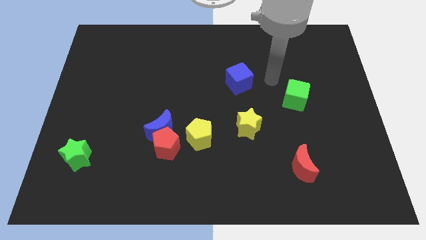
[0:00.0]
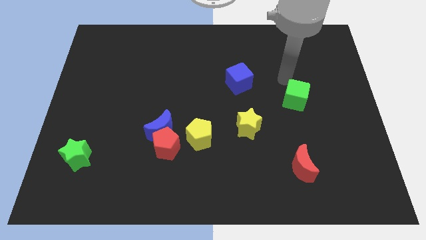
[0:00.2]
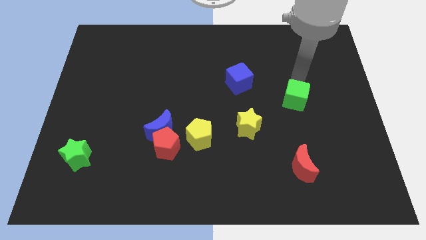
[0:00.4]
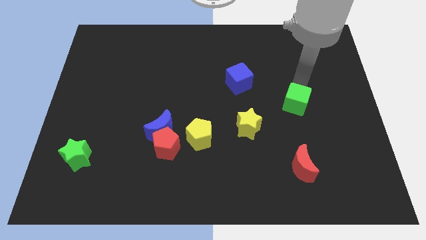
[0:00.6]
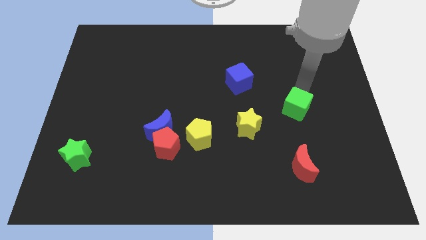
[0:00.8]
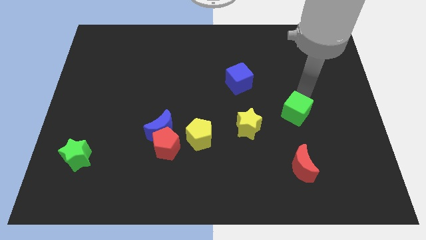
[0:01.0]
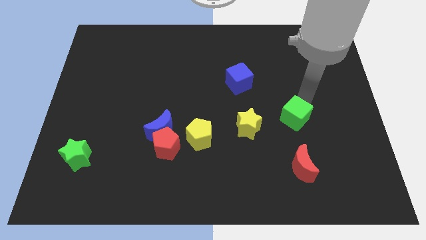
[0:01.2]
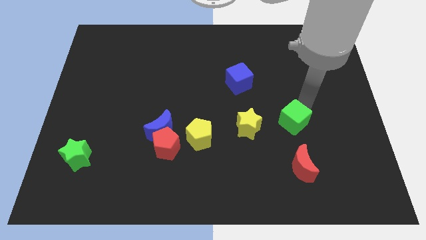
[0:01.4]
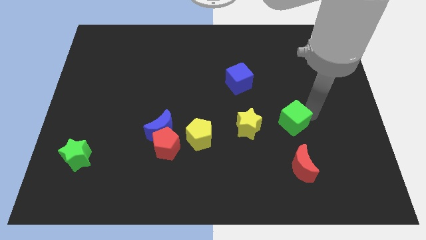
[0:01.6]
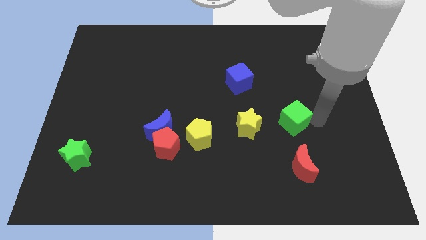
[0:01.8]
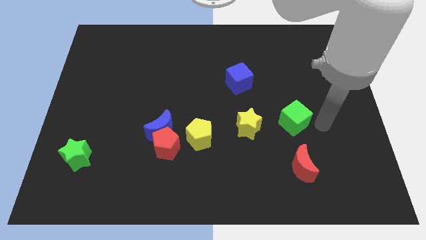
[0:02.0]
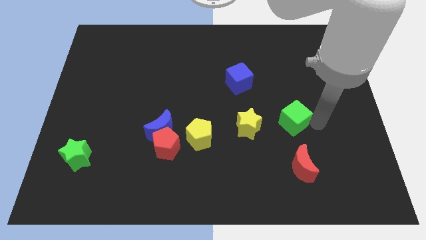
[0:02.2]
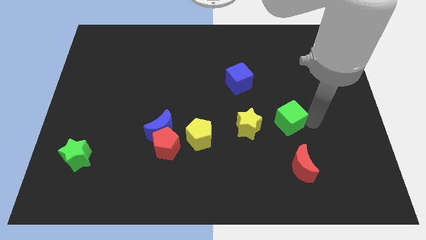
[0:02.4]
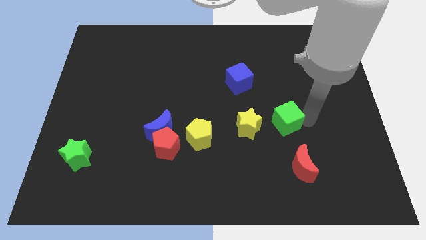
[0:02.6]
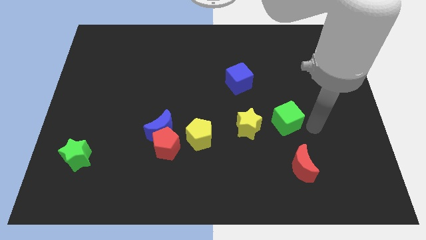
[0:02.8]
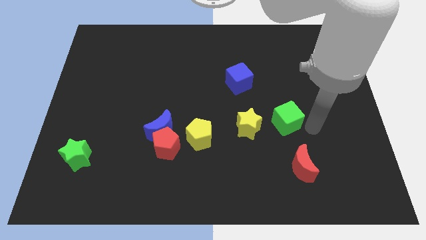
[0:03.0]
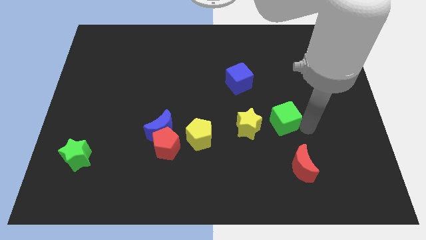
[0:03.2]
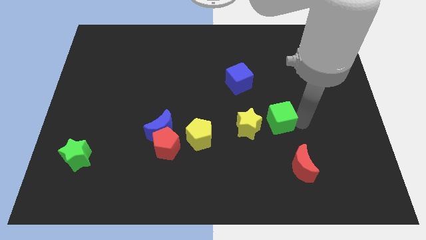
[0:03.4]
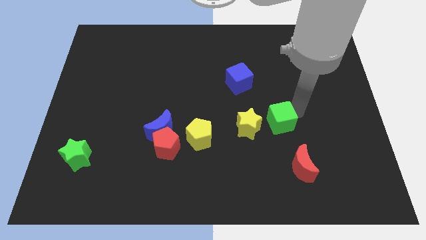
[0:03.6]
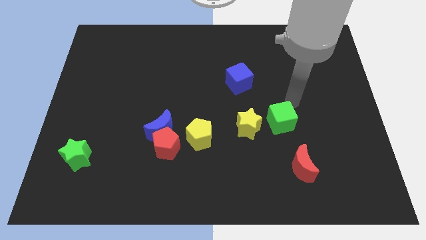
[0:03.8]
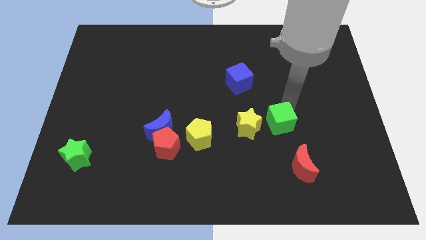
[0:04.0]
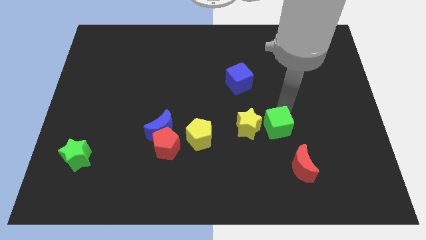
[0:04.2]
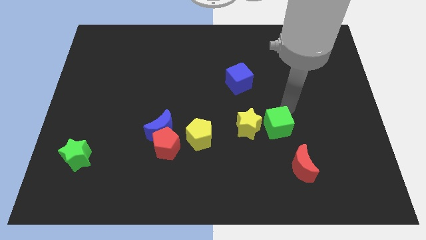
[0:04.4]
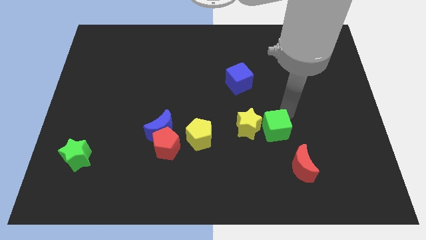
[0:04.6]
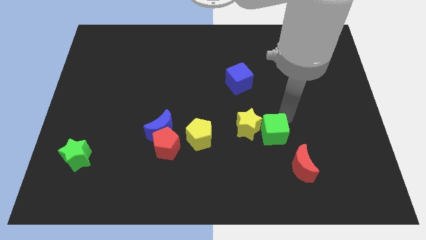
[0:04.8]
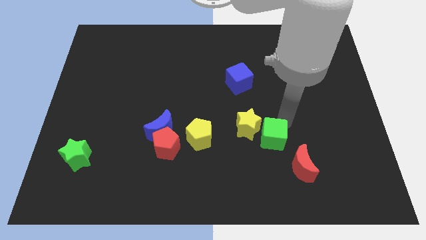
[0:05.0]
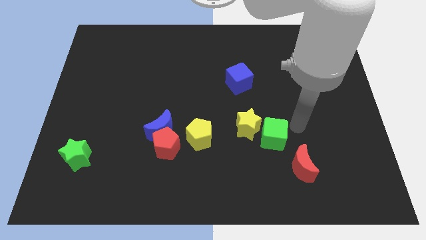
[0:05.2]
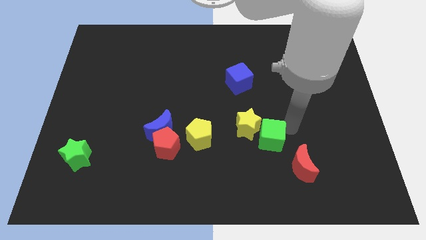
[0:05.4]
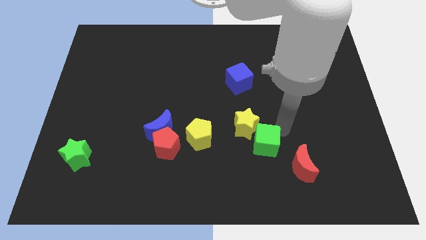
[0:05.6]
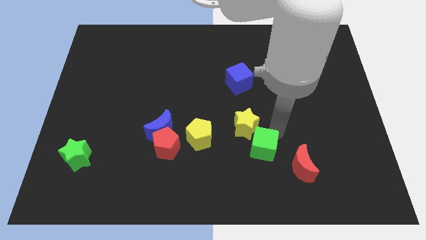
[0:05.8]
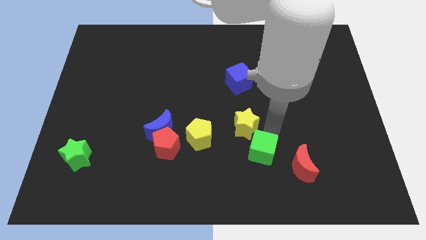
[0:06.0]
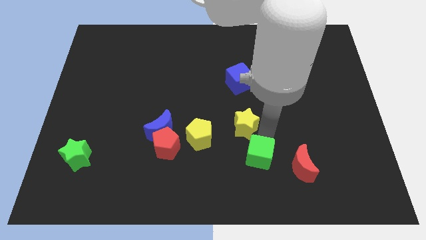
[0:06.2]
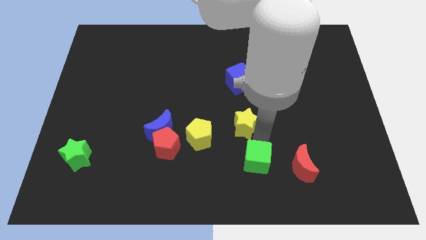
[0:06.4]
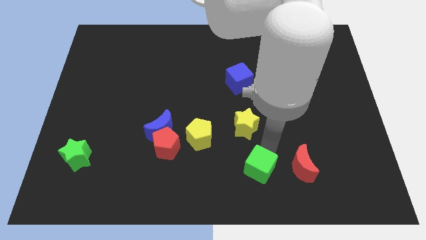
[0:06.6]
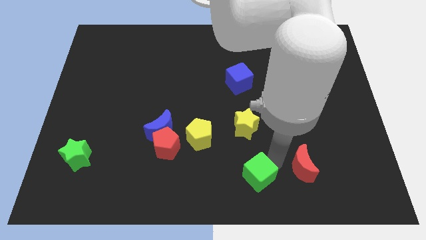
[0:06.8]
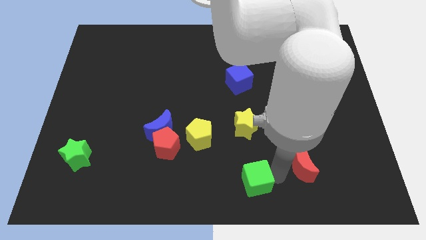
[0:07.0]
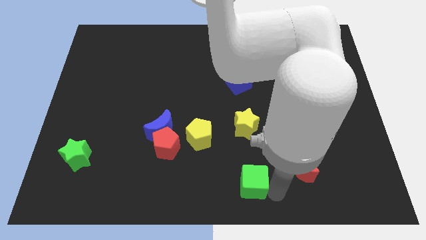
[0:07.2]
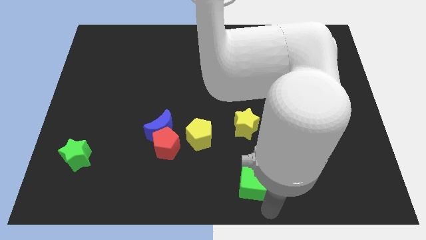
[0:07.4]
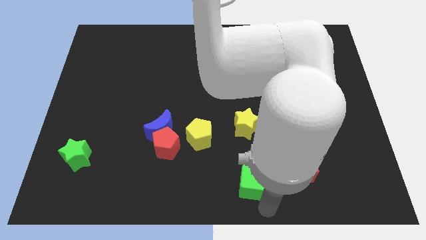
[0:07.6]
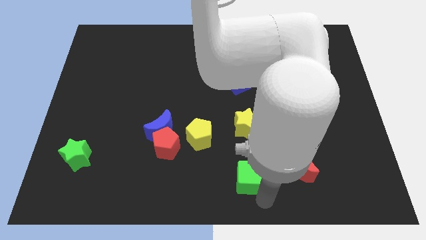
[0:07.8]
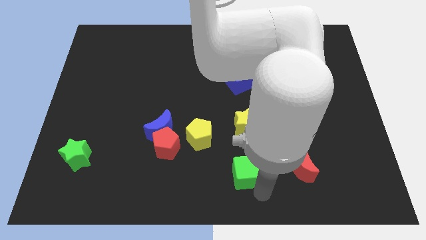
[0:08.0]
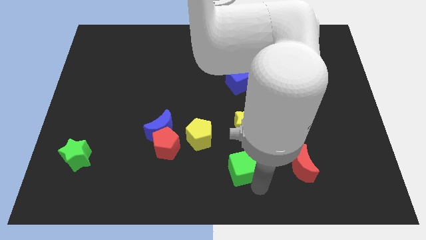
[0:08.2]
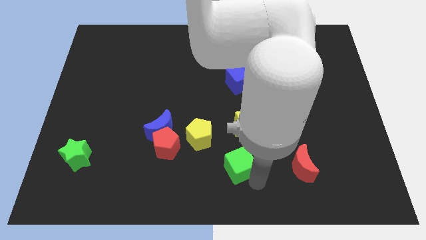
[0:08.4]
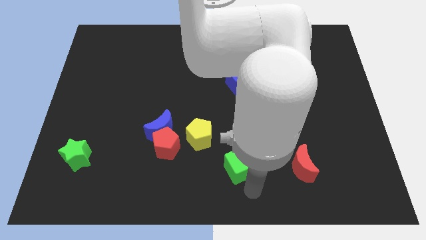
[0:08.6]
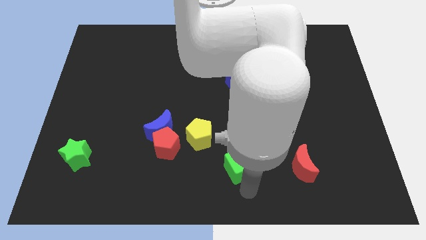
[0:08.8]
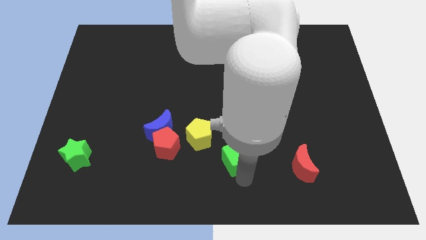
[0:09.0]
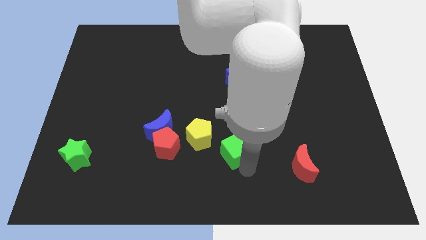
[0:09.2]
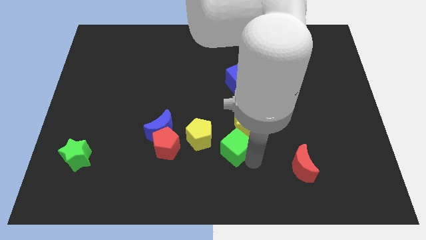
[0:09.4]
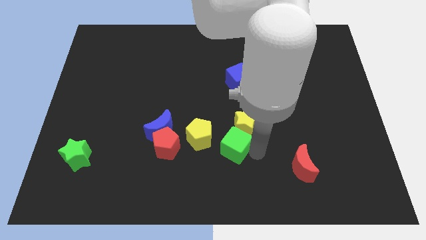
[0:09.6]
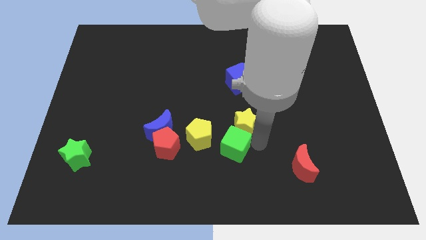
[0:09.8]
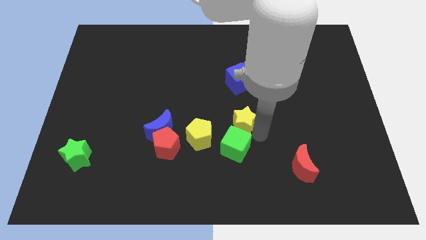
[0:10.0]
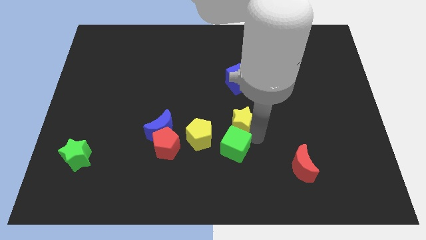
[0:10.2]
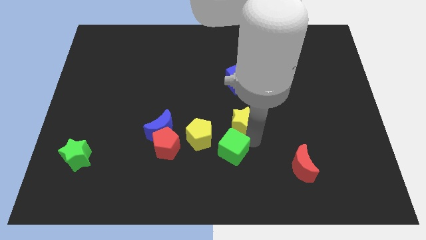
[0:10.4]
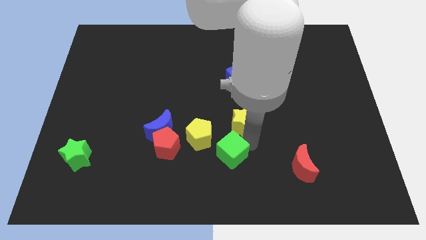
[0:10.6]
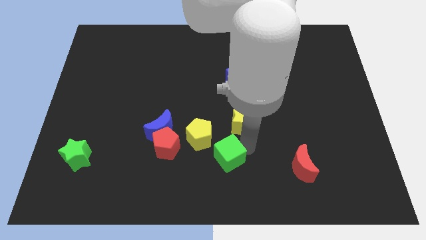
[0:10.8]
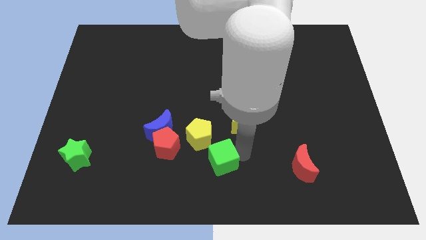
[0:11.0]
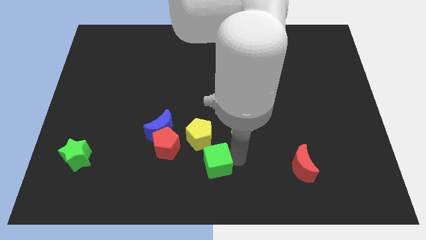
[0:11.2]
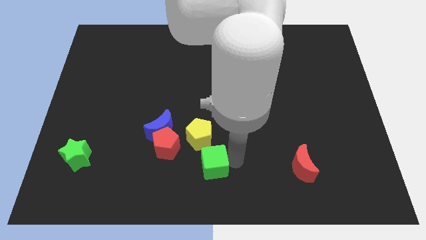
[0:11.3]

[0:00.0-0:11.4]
slide the green cube to the bottom right of the red pentagon

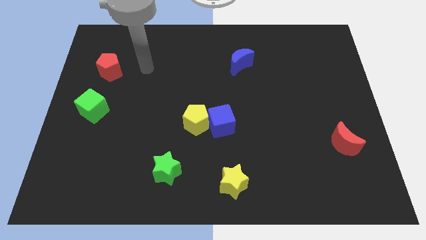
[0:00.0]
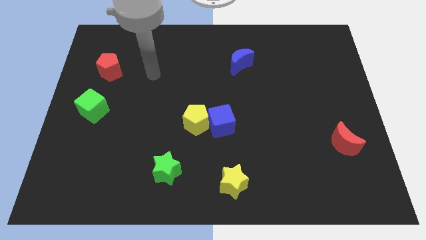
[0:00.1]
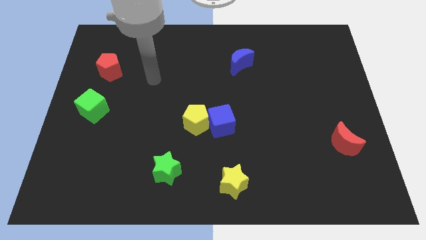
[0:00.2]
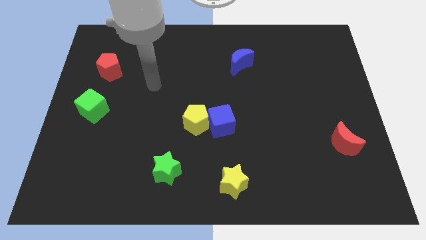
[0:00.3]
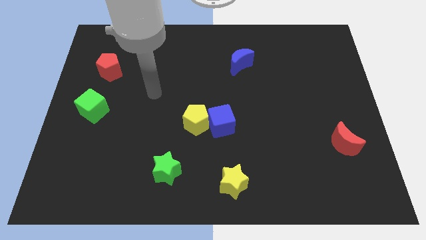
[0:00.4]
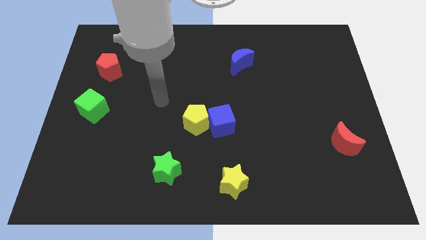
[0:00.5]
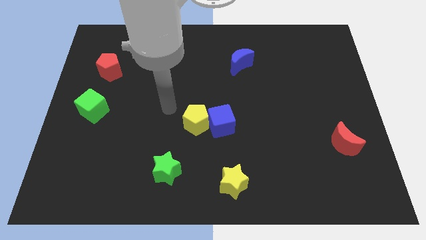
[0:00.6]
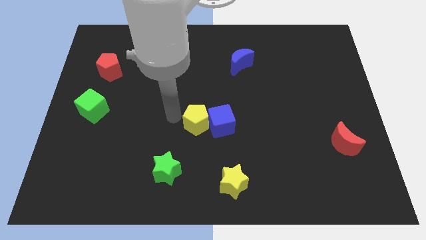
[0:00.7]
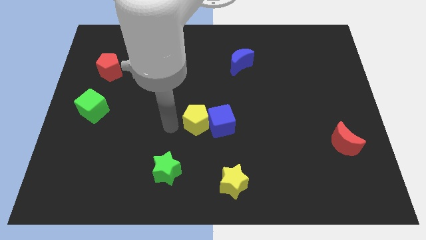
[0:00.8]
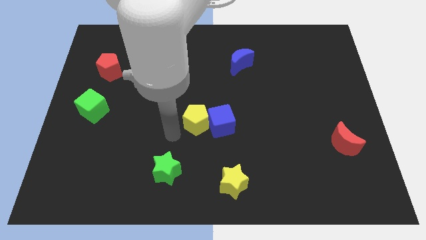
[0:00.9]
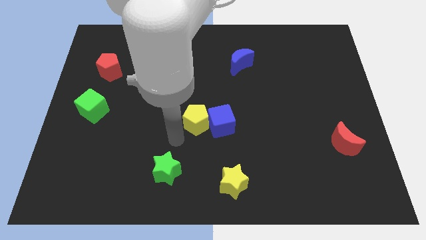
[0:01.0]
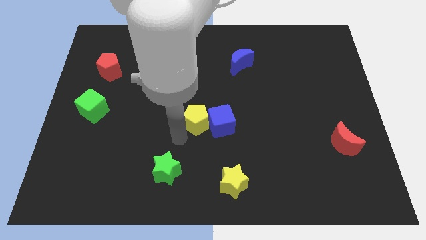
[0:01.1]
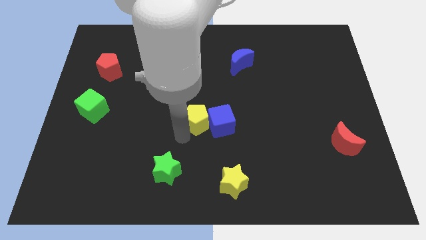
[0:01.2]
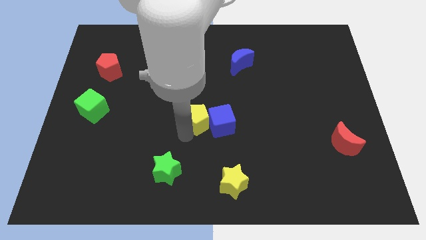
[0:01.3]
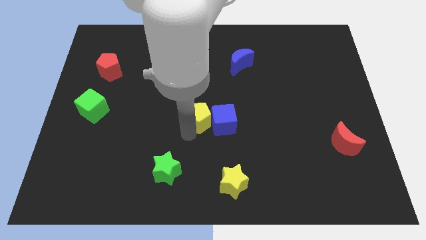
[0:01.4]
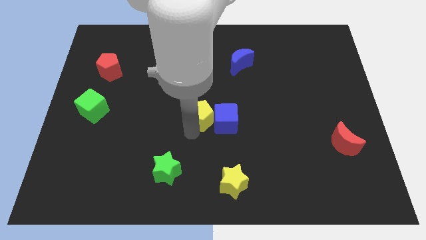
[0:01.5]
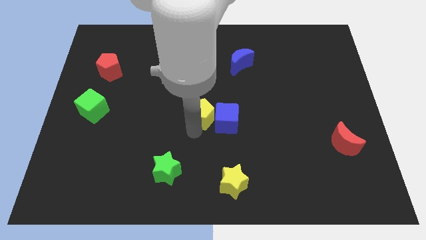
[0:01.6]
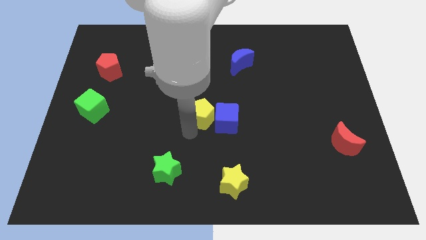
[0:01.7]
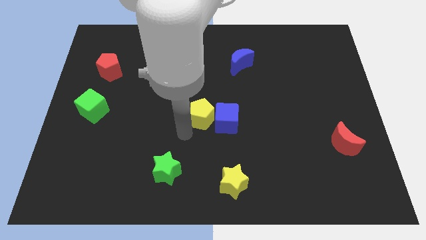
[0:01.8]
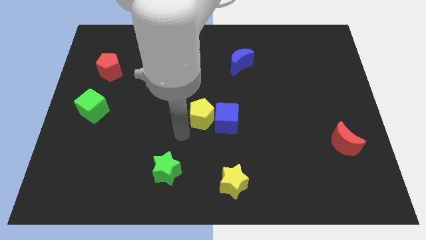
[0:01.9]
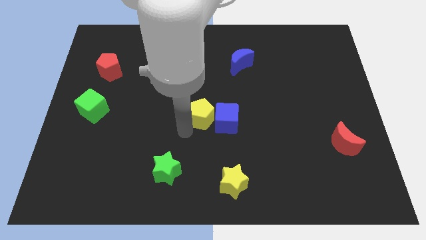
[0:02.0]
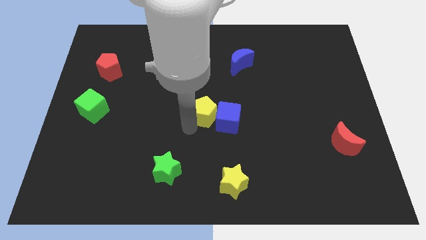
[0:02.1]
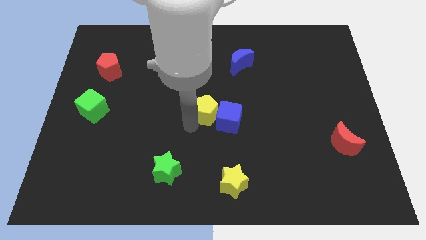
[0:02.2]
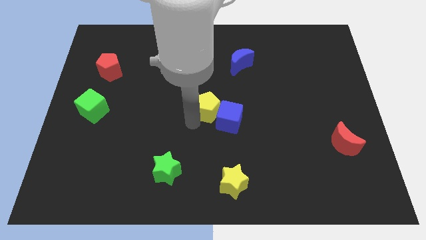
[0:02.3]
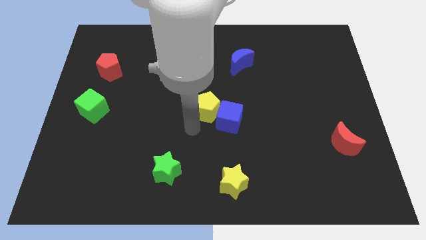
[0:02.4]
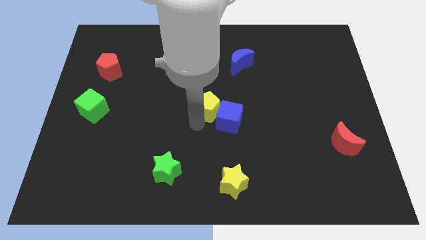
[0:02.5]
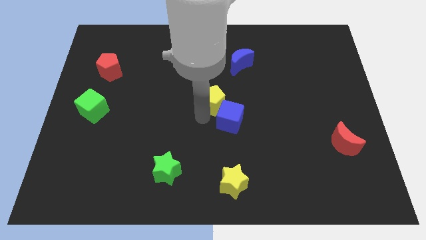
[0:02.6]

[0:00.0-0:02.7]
slide the yellow pentagon to the top of the blue cube

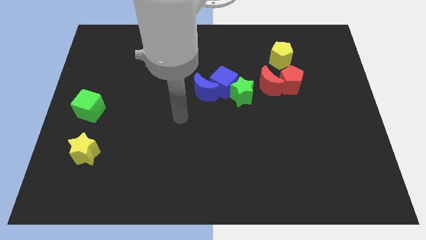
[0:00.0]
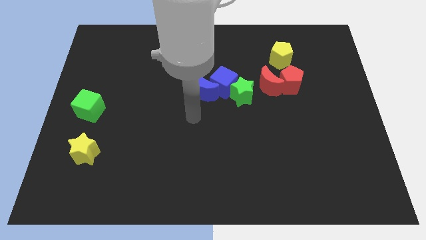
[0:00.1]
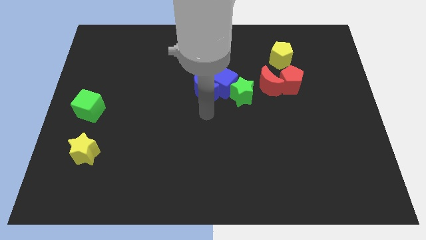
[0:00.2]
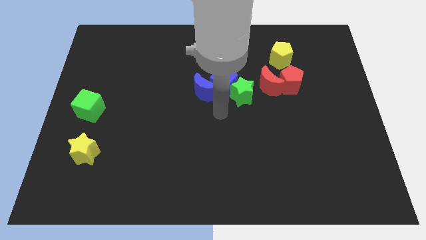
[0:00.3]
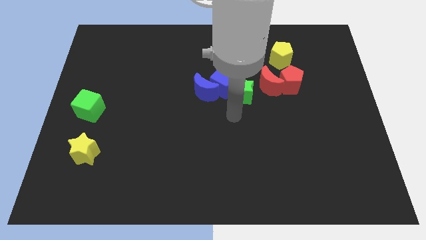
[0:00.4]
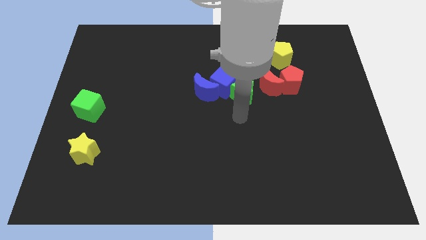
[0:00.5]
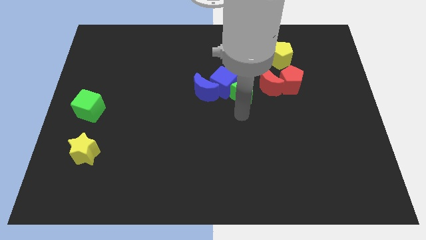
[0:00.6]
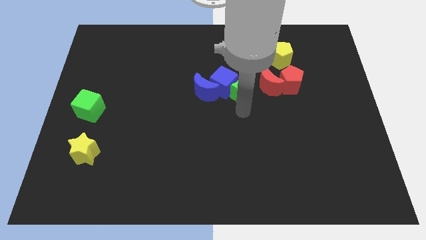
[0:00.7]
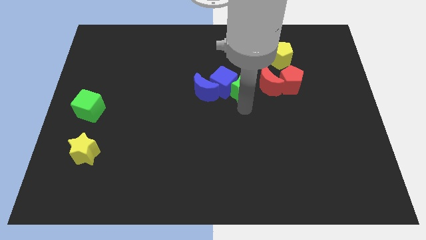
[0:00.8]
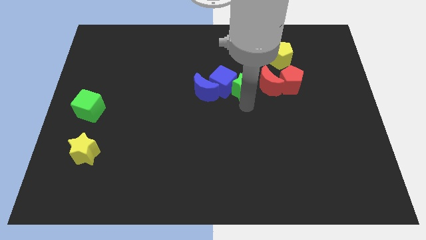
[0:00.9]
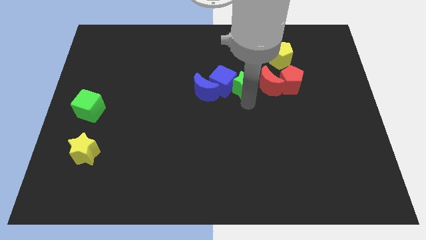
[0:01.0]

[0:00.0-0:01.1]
push the green star to the top left side of the red moon
